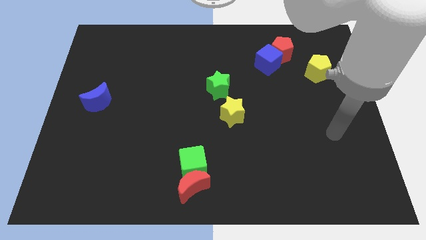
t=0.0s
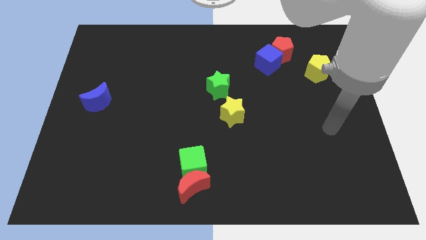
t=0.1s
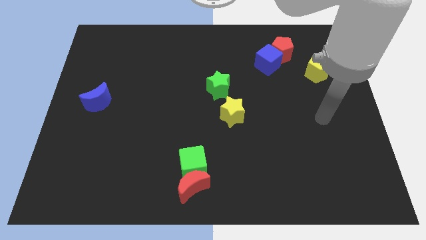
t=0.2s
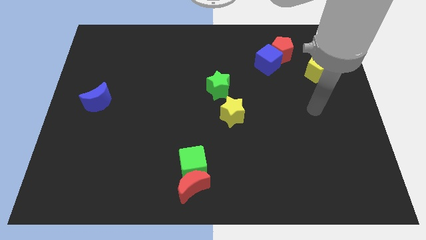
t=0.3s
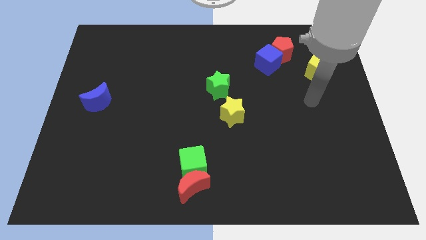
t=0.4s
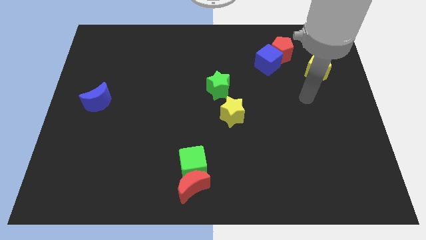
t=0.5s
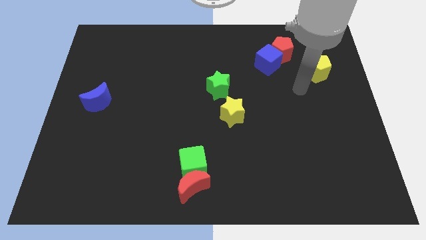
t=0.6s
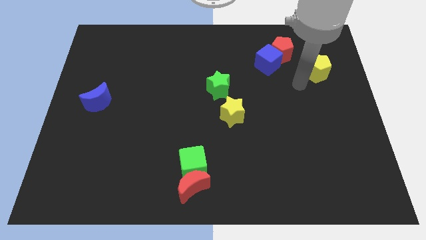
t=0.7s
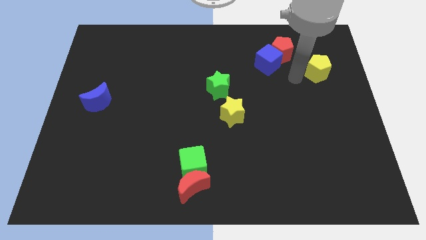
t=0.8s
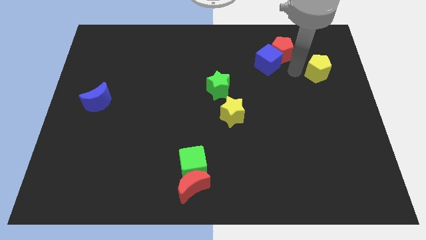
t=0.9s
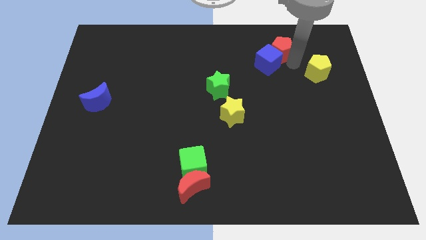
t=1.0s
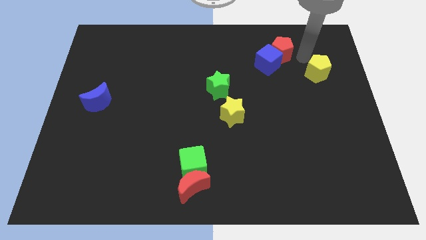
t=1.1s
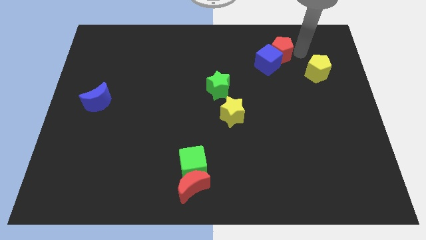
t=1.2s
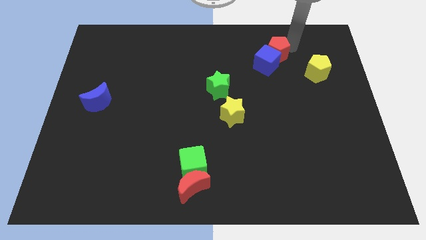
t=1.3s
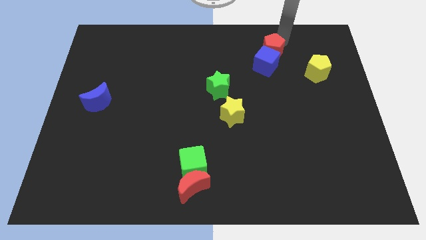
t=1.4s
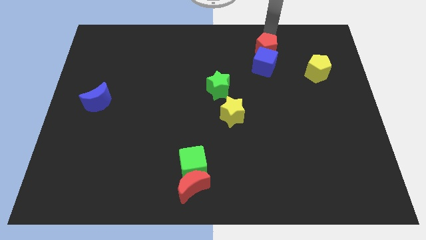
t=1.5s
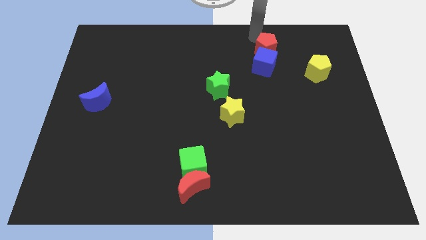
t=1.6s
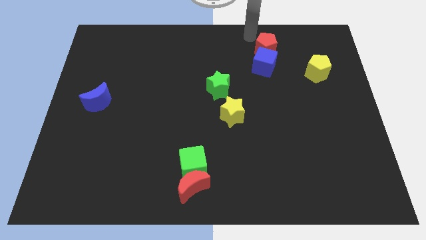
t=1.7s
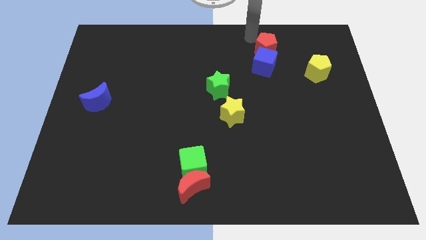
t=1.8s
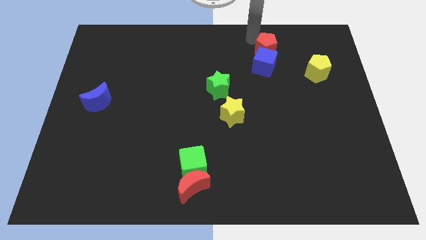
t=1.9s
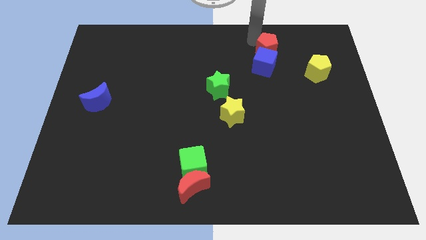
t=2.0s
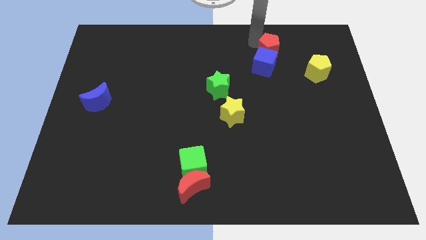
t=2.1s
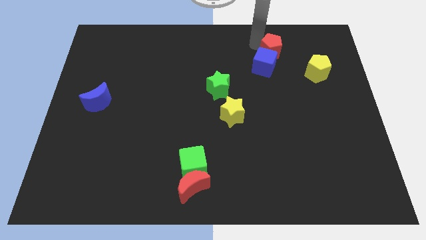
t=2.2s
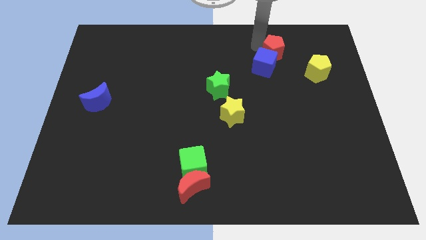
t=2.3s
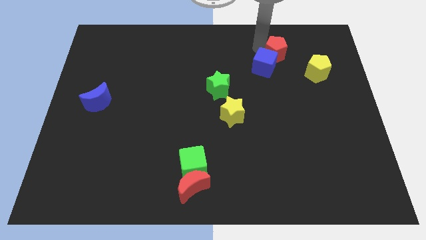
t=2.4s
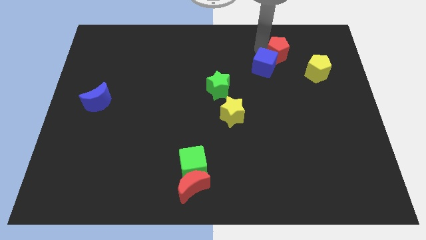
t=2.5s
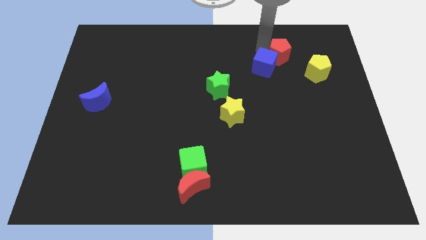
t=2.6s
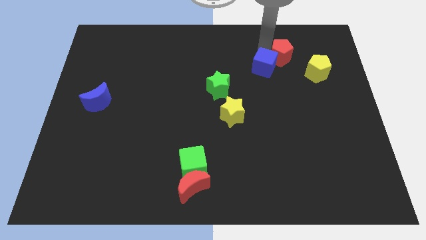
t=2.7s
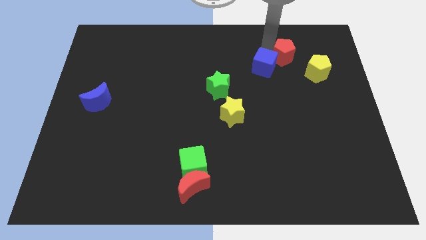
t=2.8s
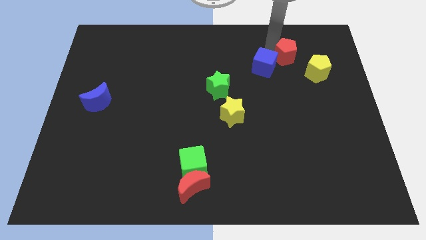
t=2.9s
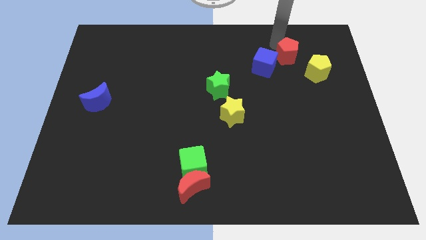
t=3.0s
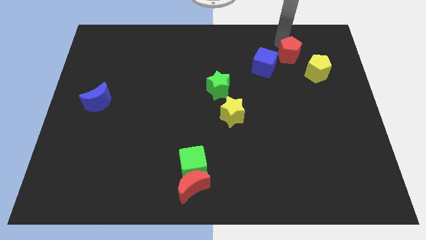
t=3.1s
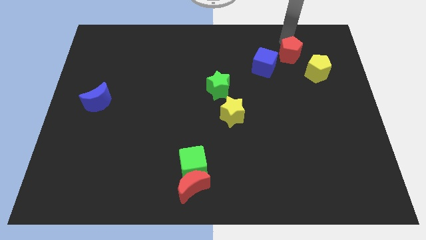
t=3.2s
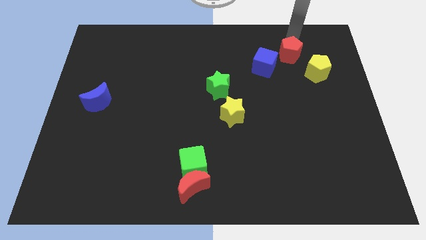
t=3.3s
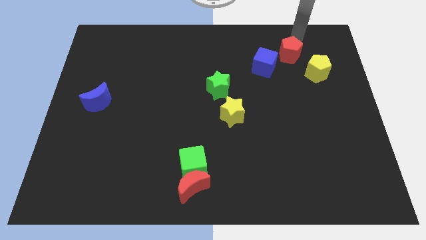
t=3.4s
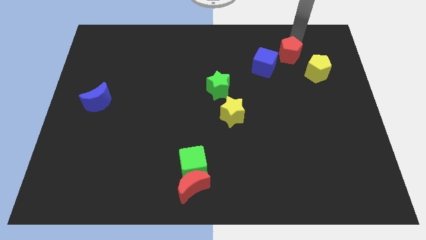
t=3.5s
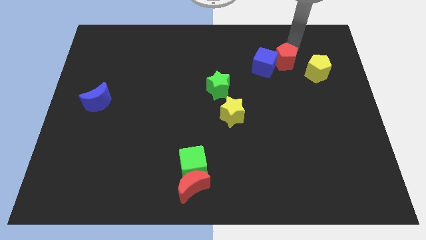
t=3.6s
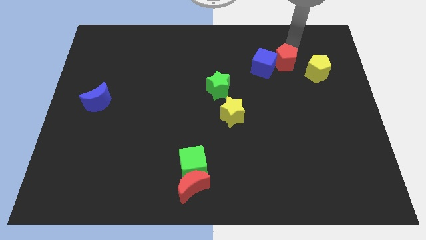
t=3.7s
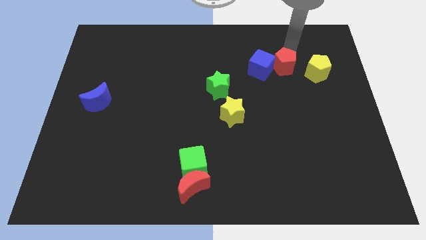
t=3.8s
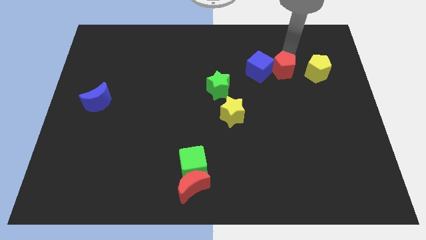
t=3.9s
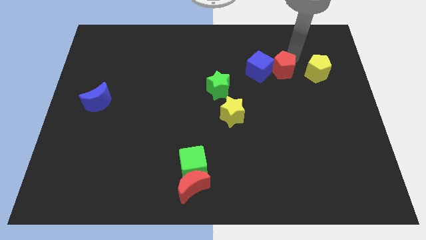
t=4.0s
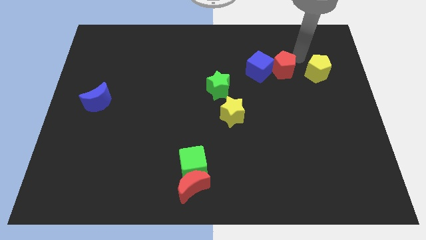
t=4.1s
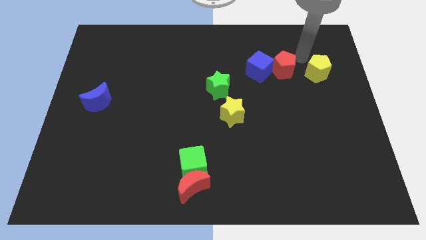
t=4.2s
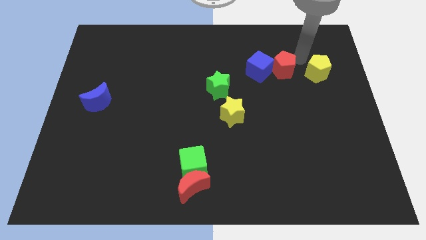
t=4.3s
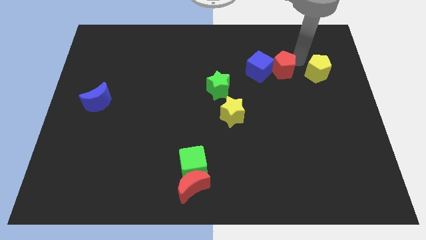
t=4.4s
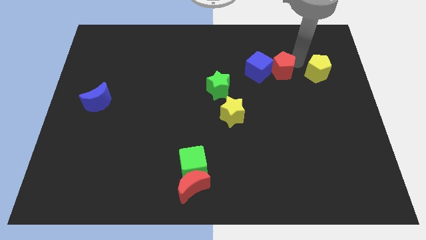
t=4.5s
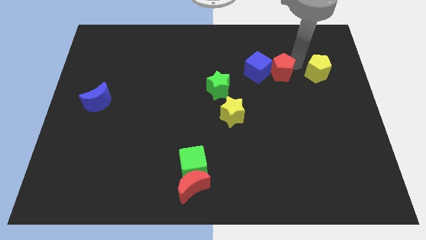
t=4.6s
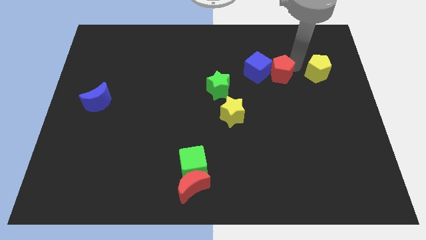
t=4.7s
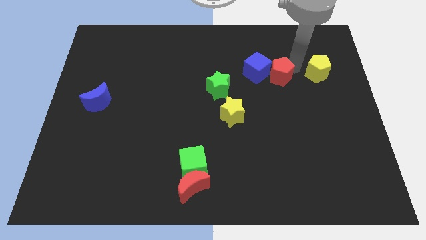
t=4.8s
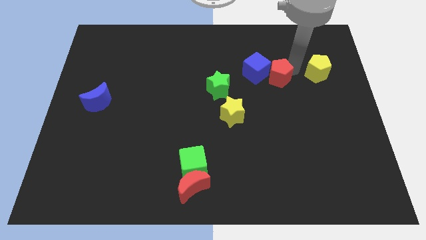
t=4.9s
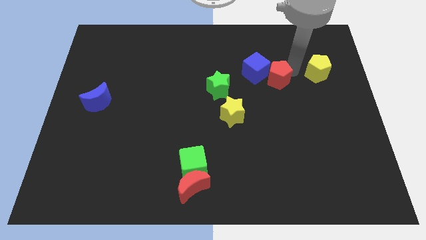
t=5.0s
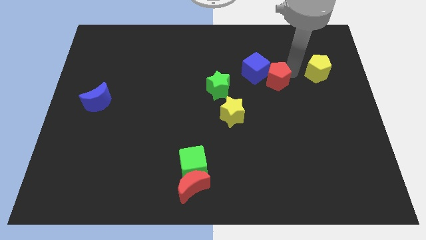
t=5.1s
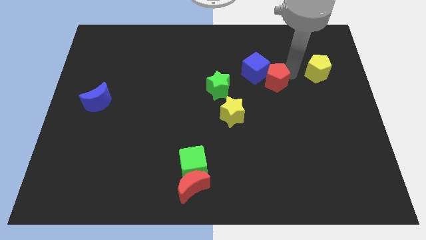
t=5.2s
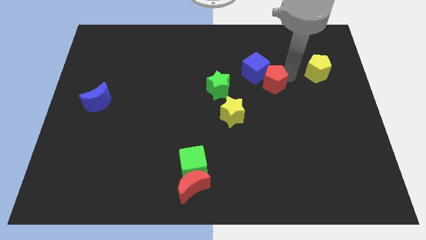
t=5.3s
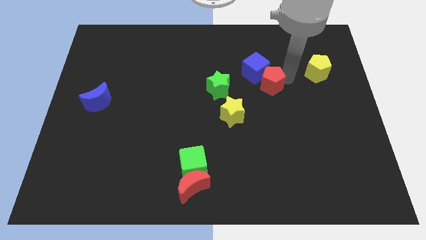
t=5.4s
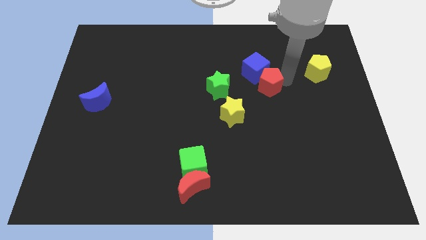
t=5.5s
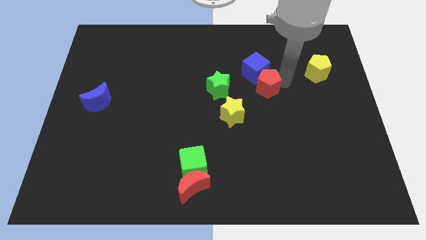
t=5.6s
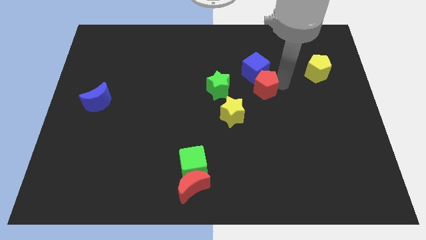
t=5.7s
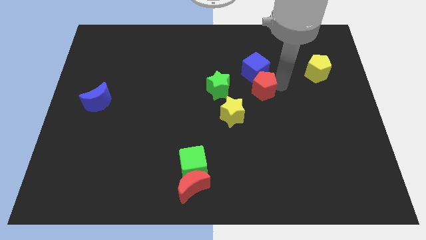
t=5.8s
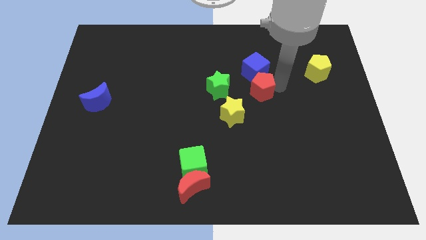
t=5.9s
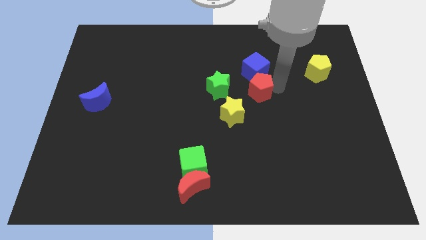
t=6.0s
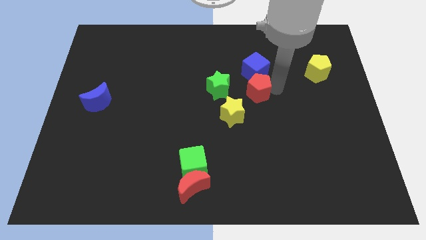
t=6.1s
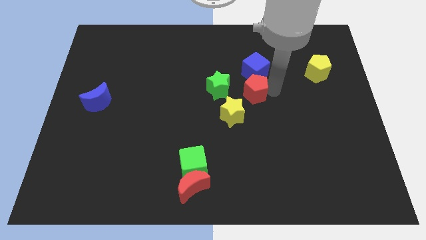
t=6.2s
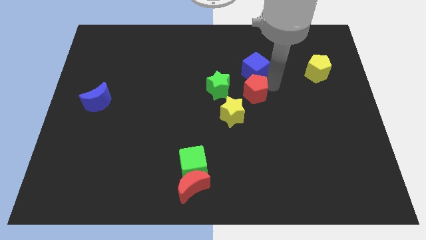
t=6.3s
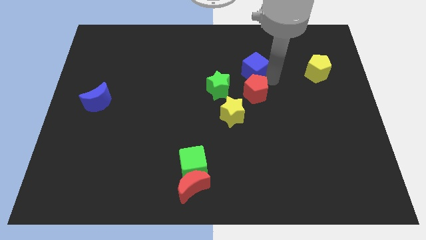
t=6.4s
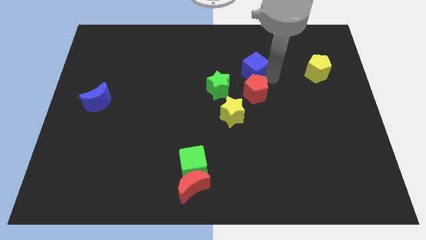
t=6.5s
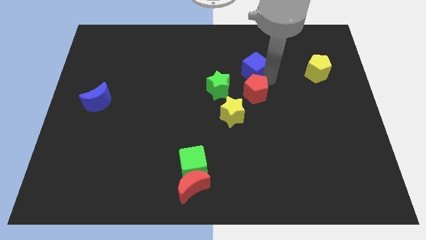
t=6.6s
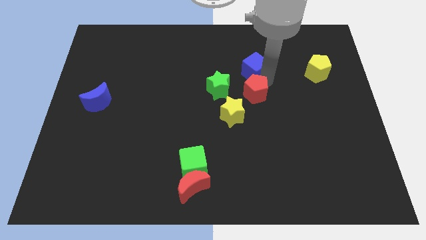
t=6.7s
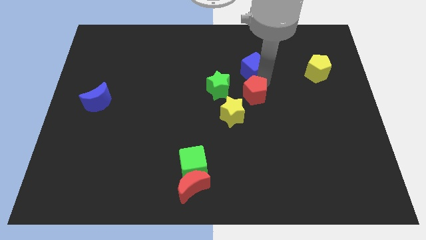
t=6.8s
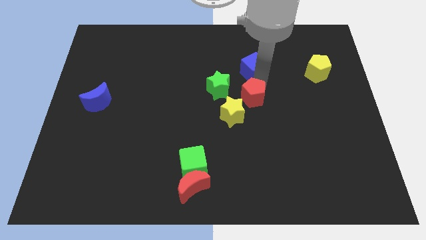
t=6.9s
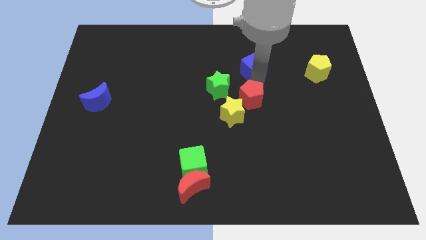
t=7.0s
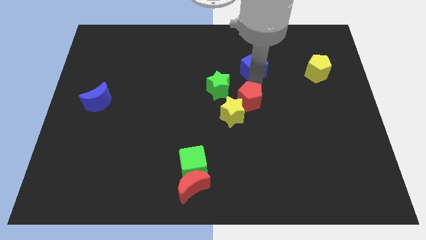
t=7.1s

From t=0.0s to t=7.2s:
move the red pentagon to the yellow star
